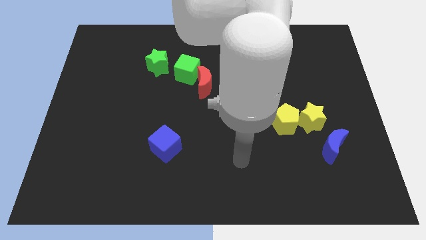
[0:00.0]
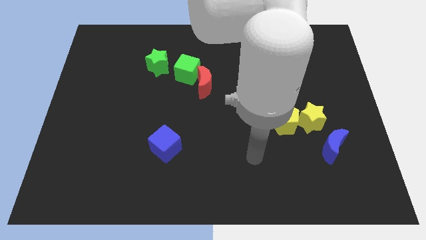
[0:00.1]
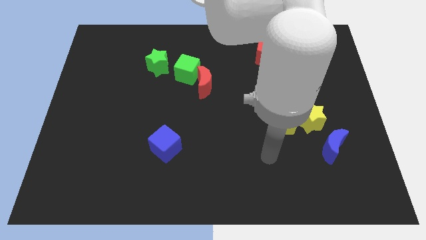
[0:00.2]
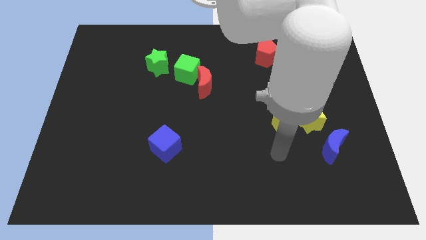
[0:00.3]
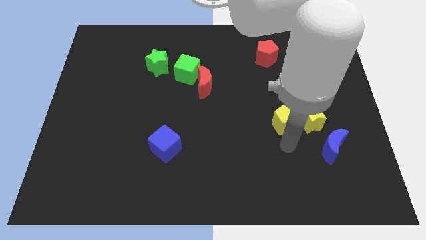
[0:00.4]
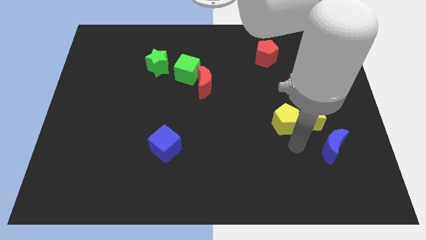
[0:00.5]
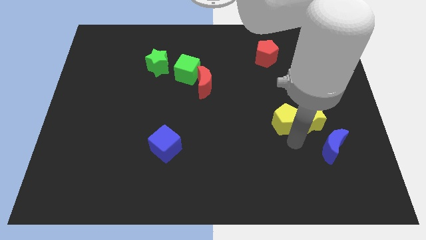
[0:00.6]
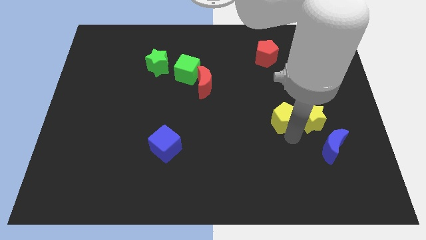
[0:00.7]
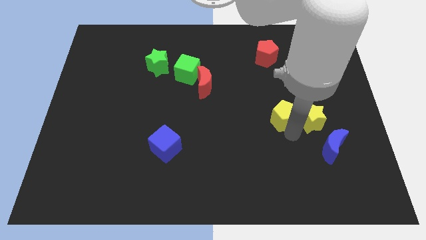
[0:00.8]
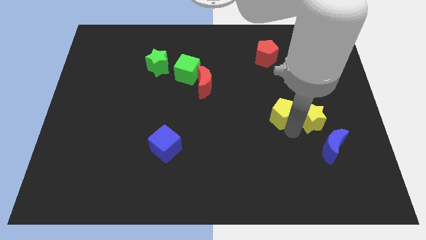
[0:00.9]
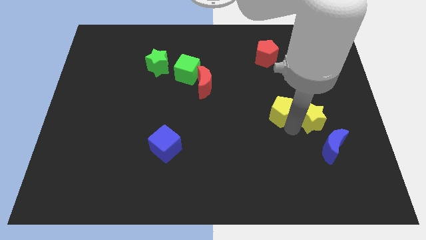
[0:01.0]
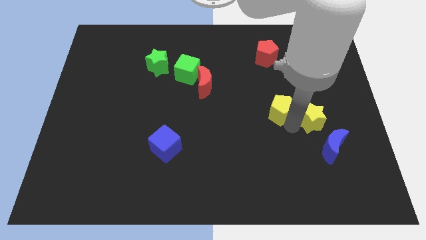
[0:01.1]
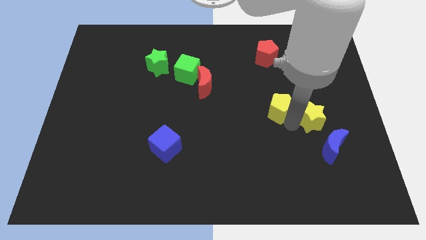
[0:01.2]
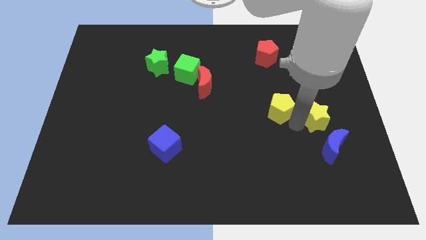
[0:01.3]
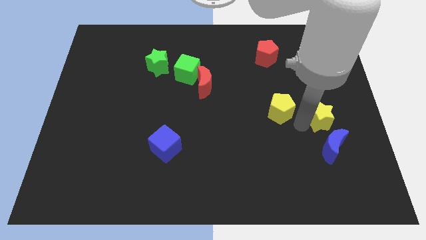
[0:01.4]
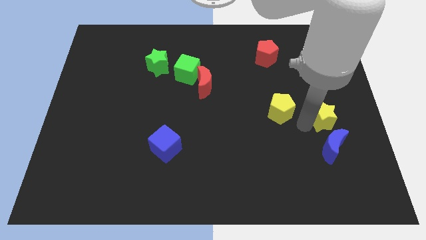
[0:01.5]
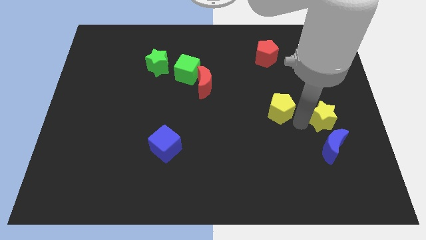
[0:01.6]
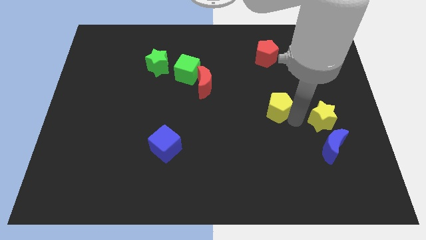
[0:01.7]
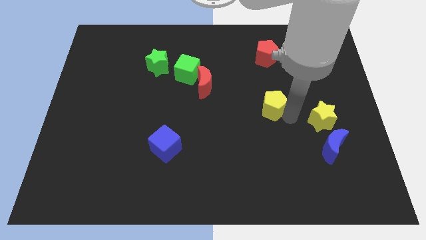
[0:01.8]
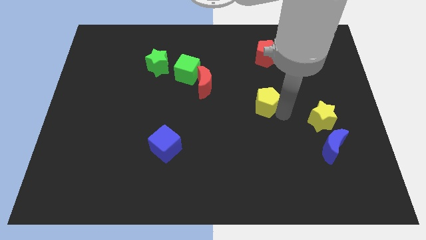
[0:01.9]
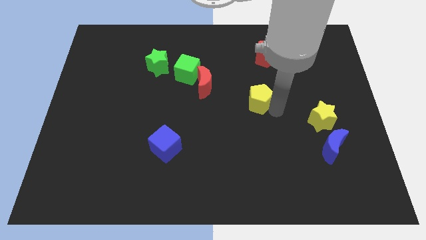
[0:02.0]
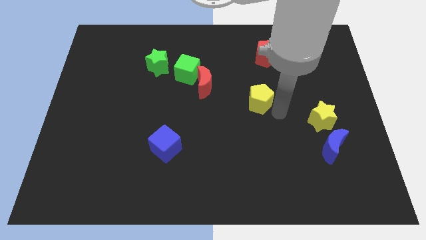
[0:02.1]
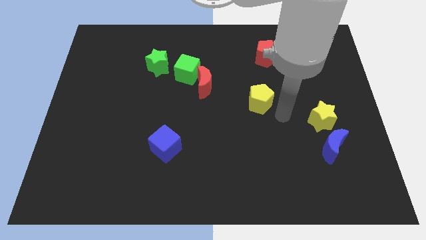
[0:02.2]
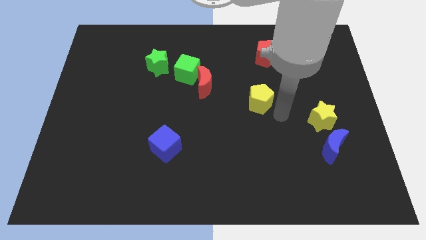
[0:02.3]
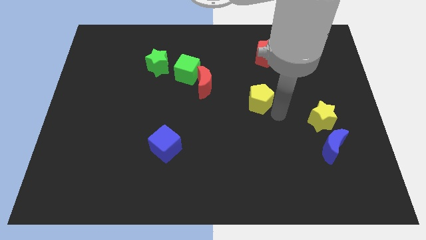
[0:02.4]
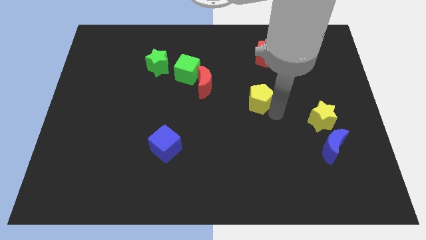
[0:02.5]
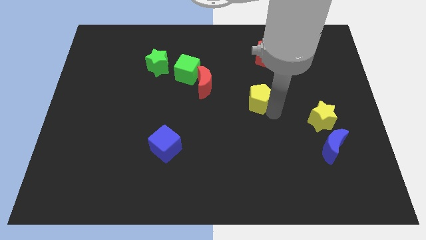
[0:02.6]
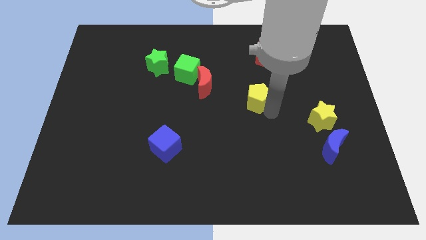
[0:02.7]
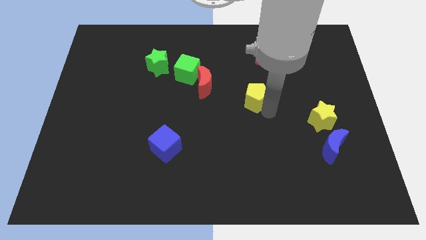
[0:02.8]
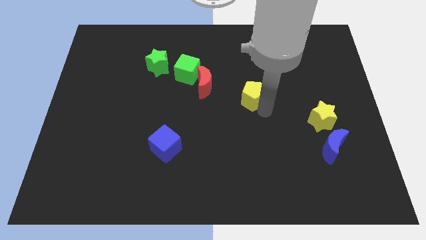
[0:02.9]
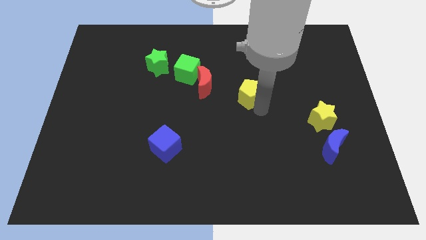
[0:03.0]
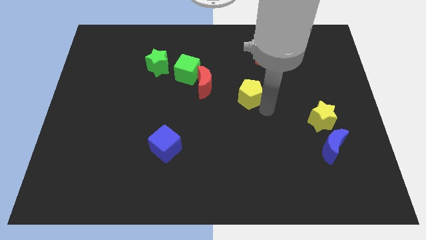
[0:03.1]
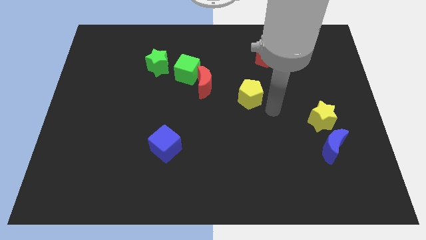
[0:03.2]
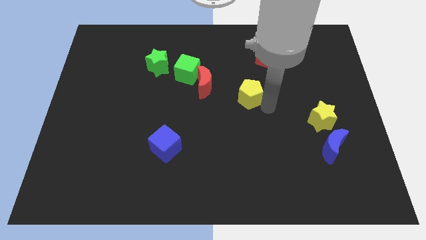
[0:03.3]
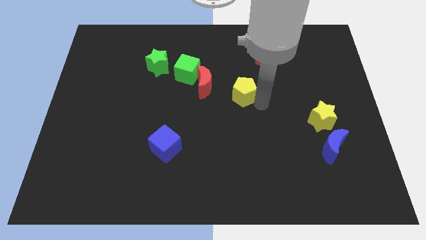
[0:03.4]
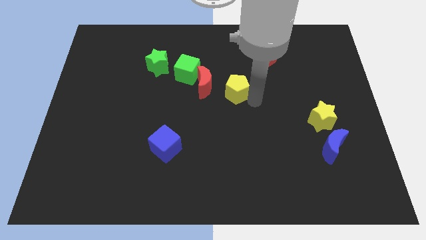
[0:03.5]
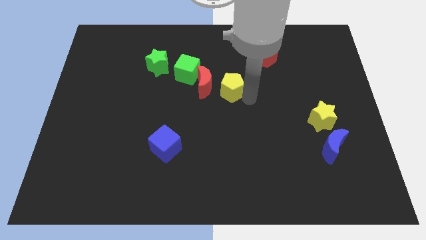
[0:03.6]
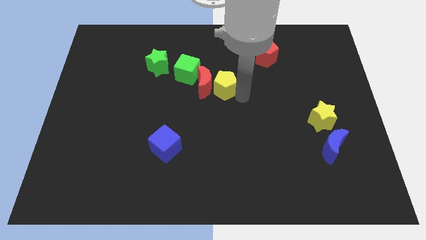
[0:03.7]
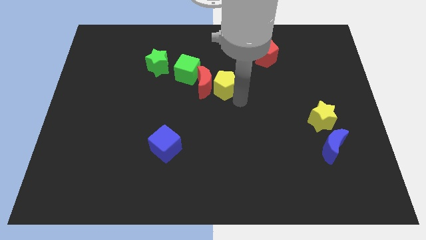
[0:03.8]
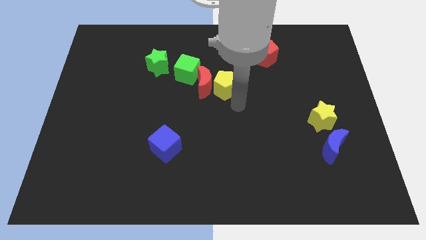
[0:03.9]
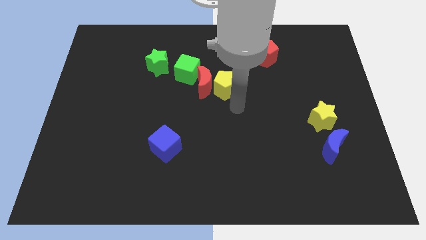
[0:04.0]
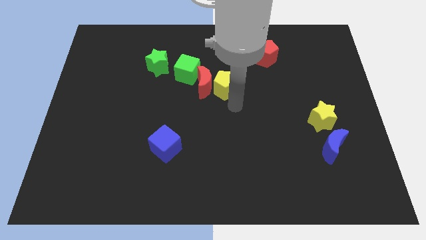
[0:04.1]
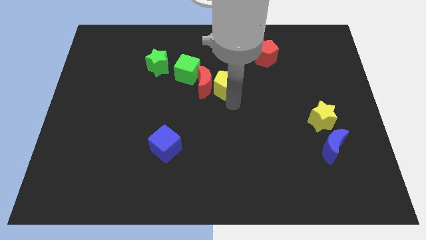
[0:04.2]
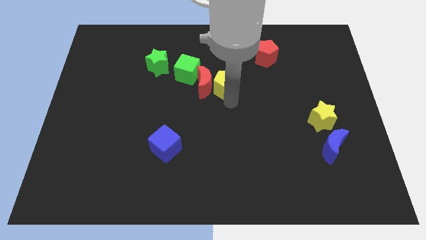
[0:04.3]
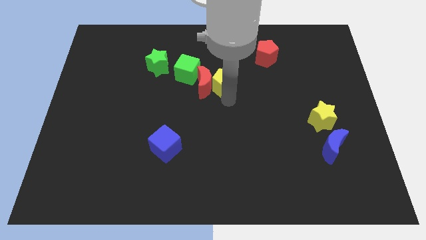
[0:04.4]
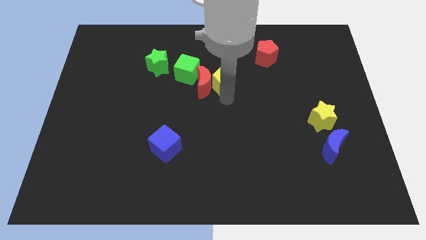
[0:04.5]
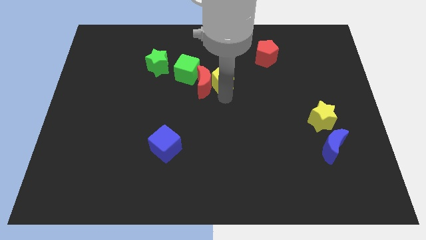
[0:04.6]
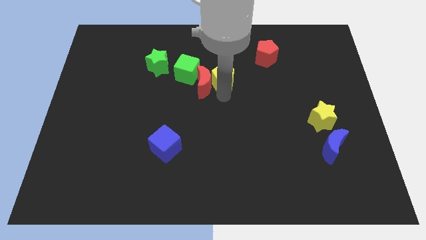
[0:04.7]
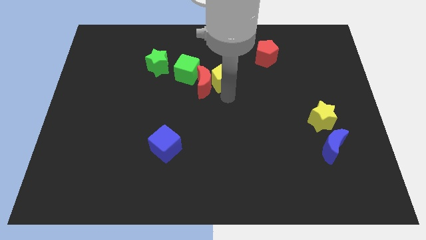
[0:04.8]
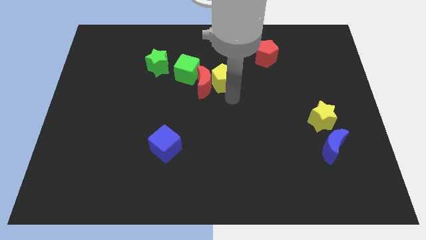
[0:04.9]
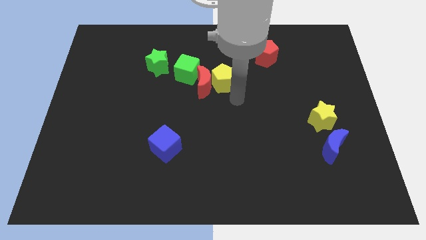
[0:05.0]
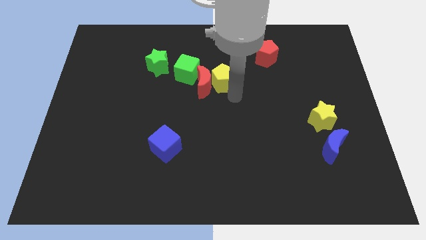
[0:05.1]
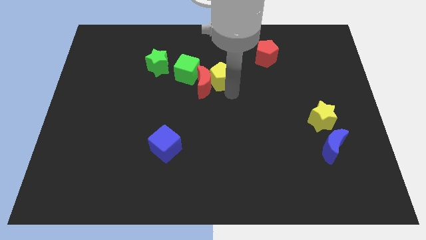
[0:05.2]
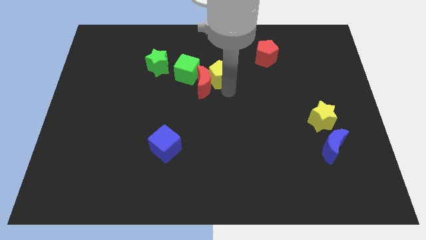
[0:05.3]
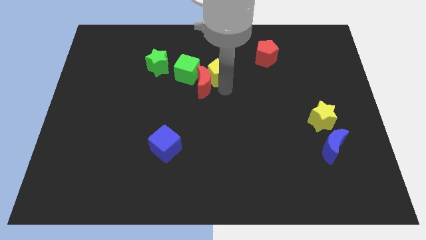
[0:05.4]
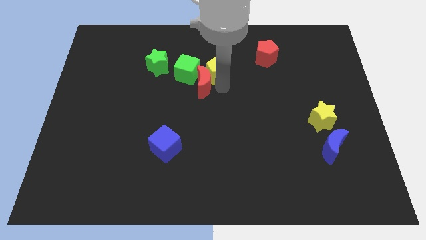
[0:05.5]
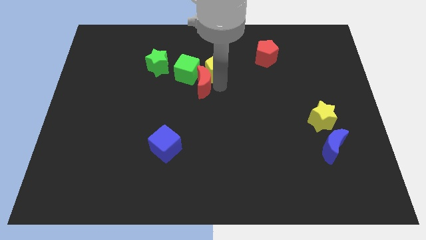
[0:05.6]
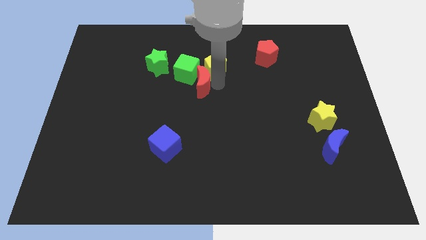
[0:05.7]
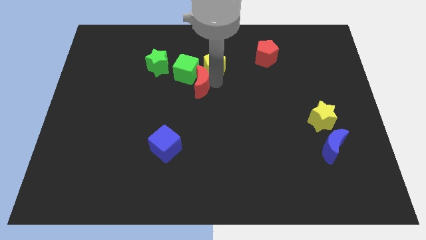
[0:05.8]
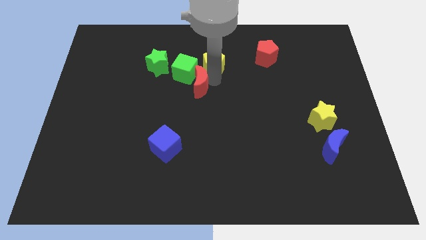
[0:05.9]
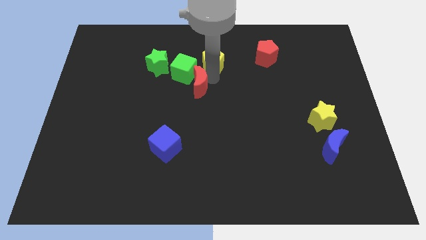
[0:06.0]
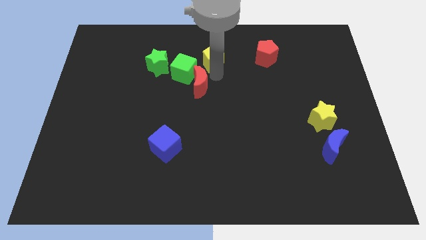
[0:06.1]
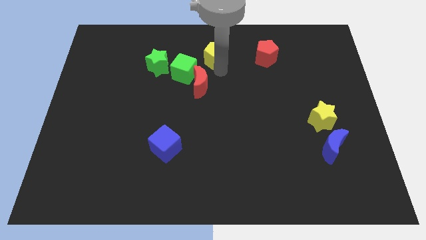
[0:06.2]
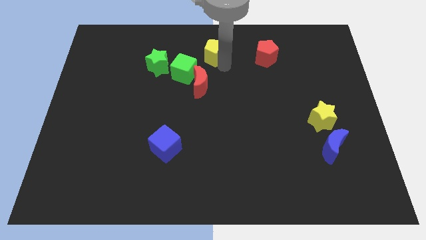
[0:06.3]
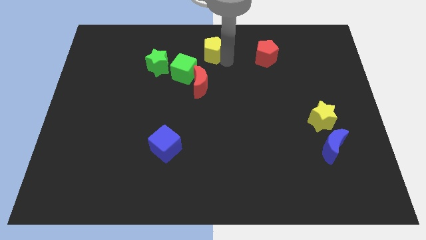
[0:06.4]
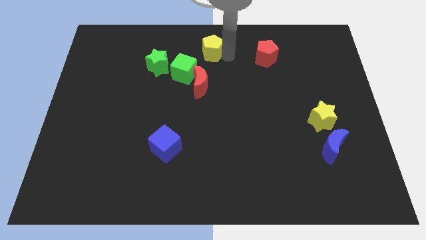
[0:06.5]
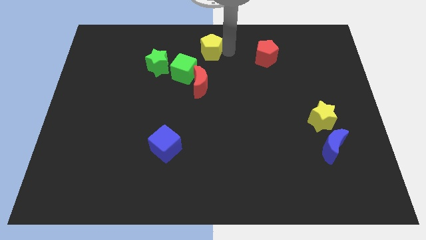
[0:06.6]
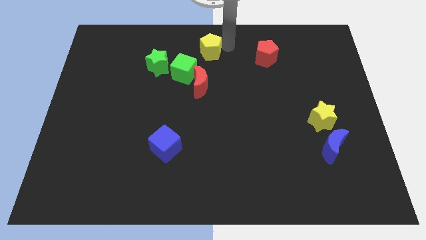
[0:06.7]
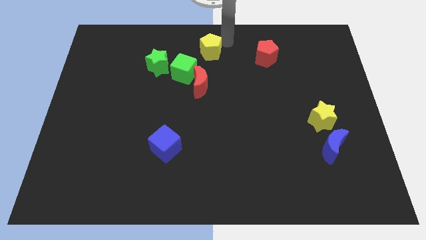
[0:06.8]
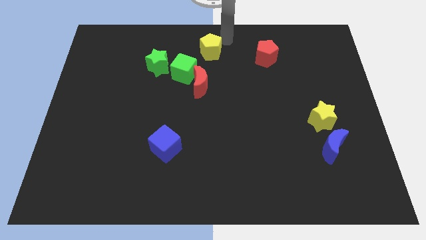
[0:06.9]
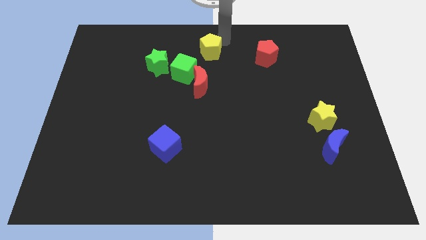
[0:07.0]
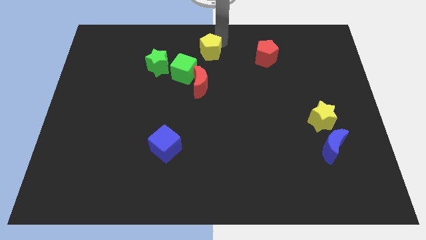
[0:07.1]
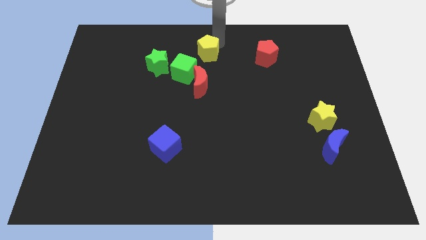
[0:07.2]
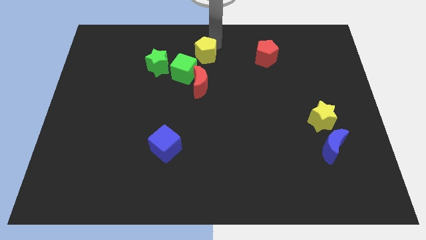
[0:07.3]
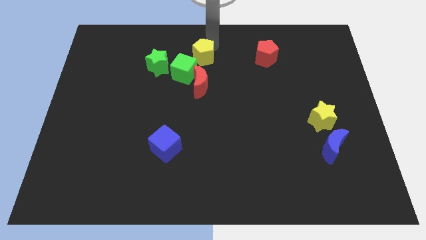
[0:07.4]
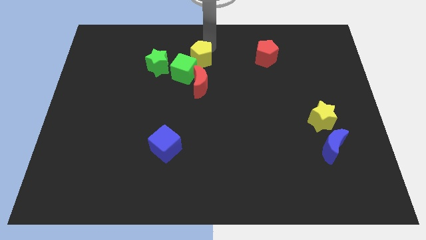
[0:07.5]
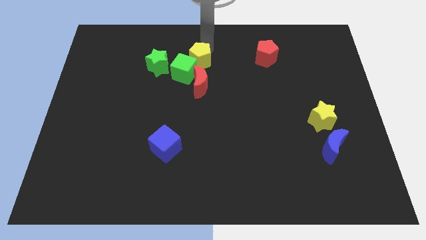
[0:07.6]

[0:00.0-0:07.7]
push the yellow pentagon close to the green cube
